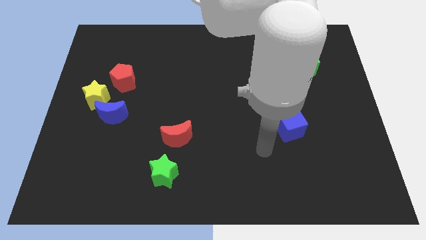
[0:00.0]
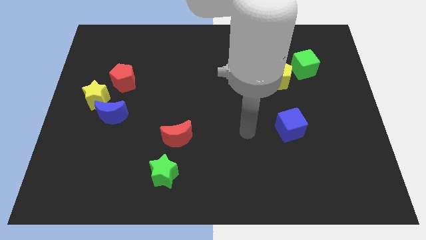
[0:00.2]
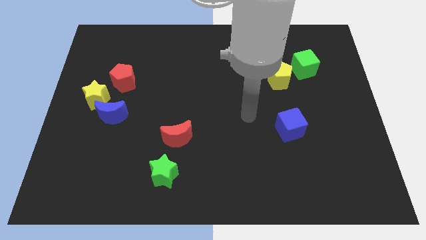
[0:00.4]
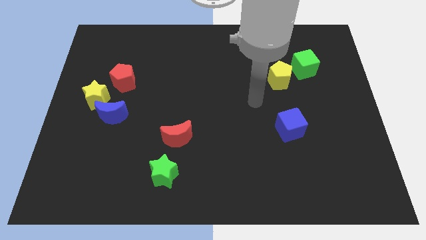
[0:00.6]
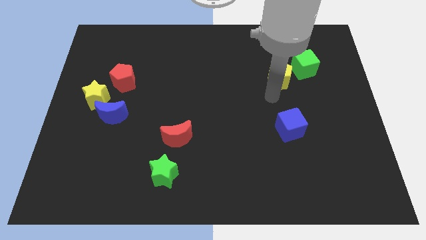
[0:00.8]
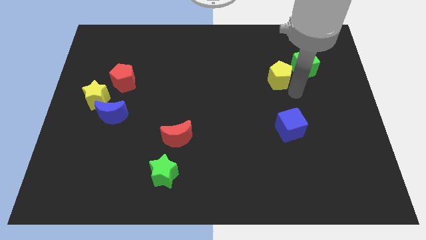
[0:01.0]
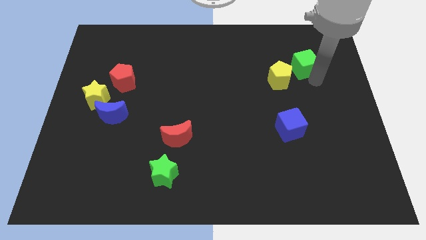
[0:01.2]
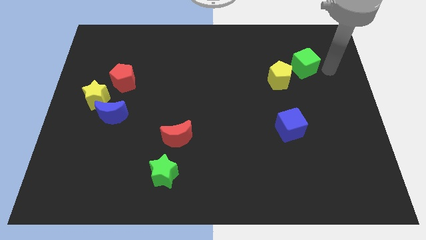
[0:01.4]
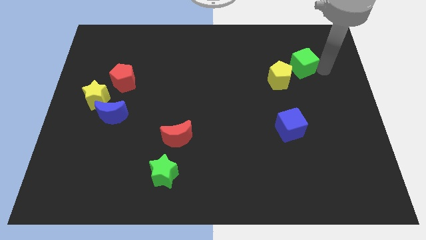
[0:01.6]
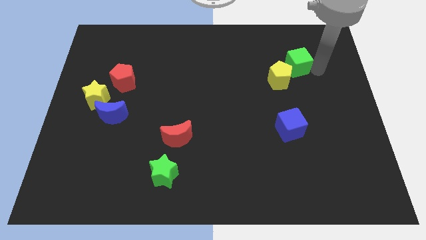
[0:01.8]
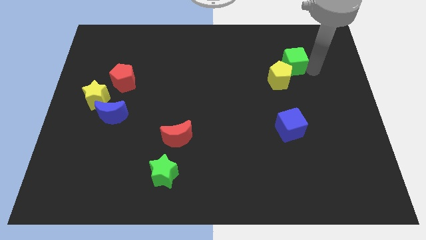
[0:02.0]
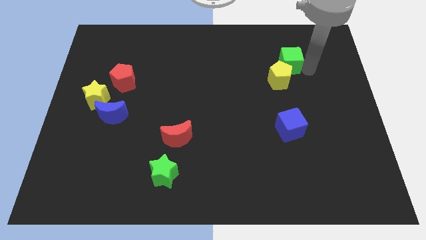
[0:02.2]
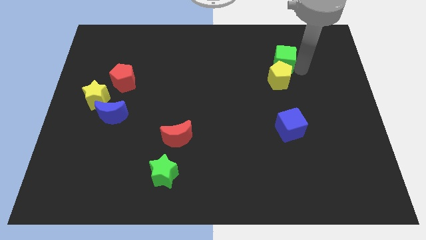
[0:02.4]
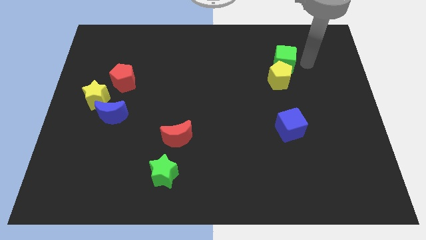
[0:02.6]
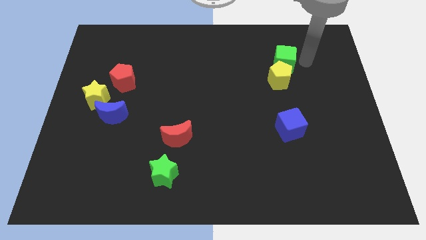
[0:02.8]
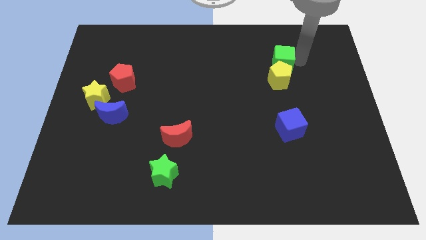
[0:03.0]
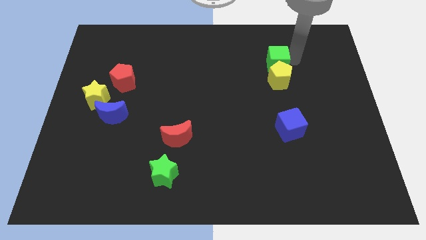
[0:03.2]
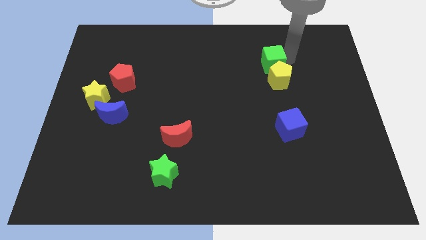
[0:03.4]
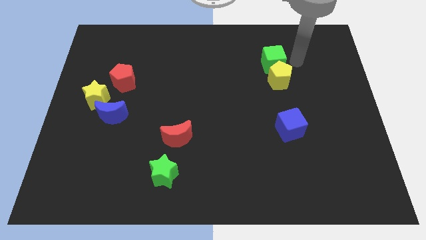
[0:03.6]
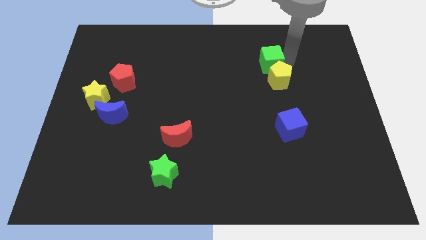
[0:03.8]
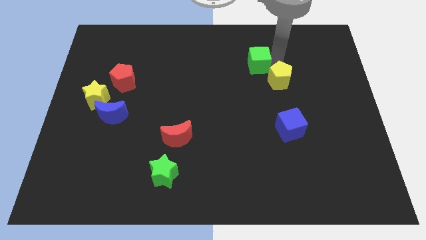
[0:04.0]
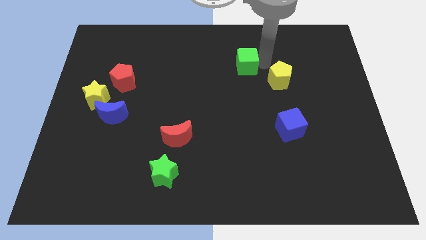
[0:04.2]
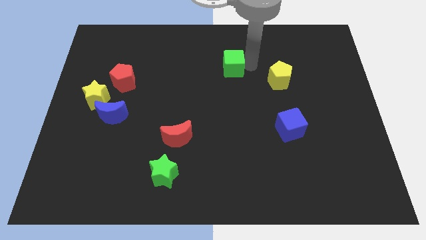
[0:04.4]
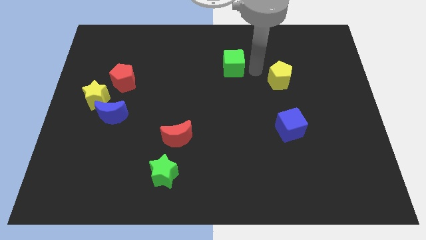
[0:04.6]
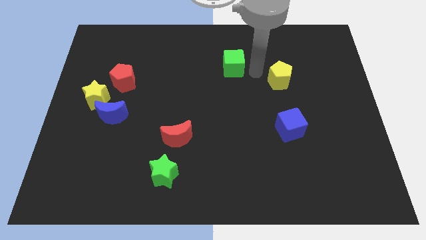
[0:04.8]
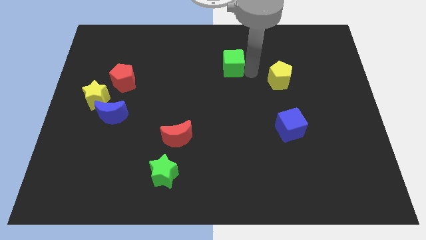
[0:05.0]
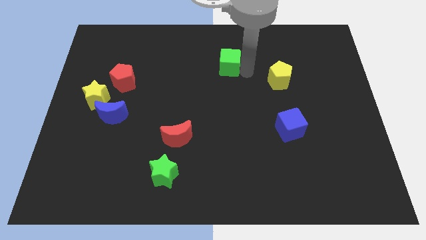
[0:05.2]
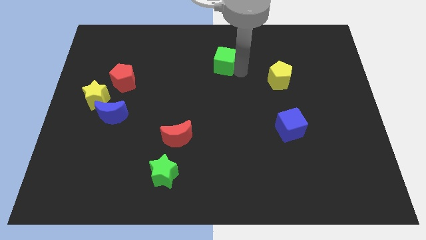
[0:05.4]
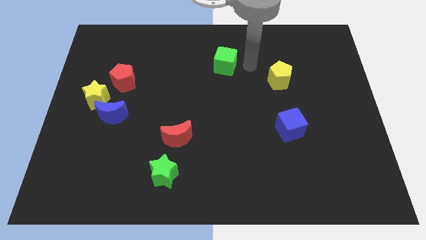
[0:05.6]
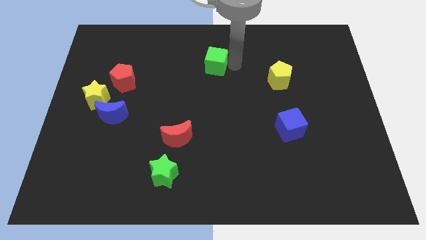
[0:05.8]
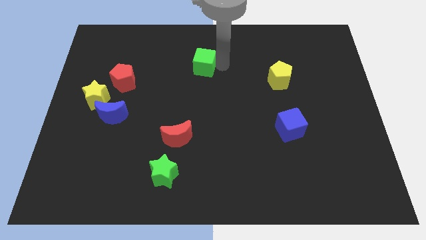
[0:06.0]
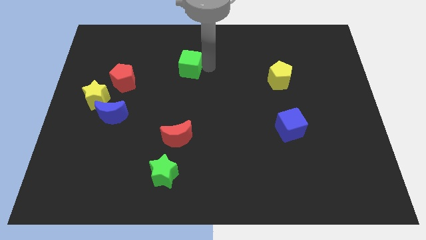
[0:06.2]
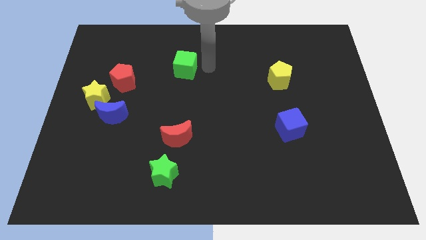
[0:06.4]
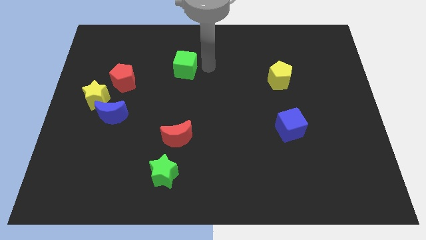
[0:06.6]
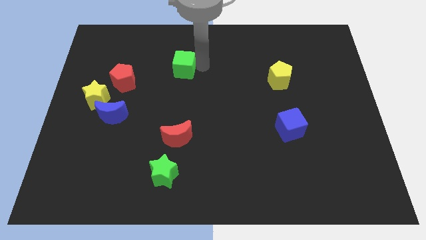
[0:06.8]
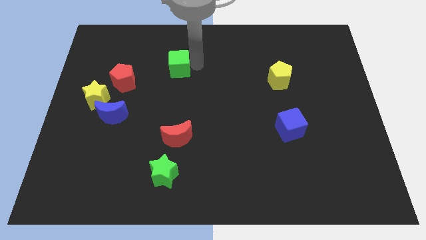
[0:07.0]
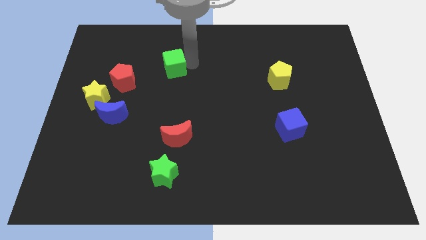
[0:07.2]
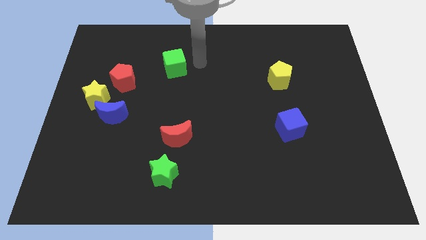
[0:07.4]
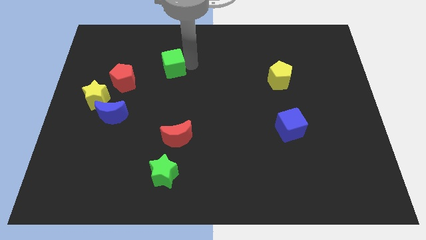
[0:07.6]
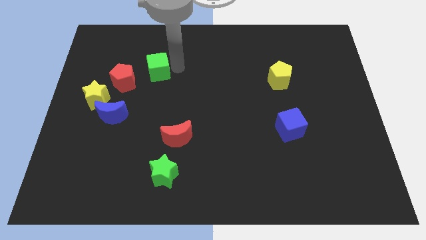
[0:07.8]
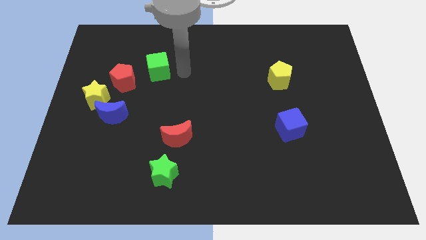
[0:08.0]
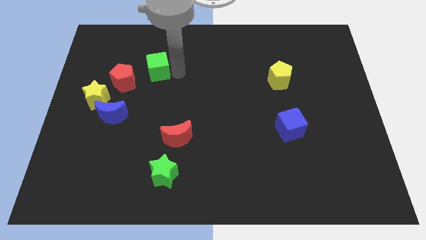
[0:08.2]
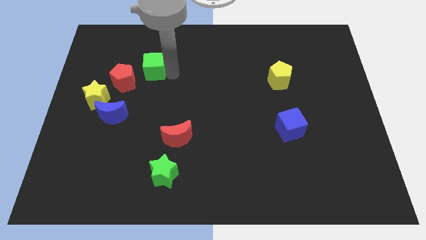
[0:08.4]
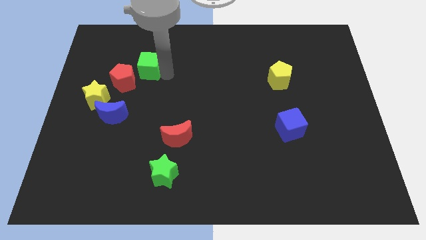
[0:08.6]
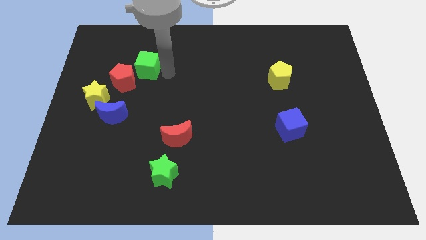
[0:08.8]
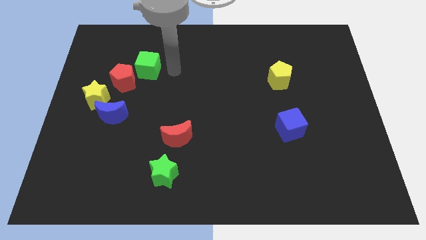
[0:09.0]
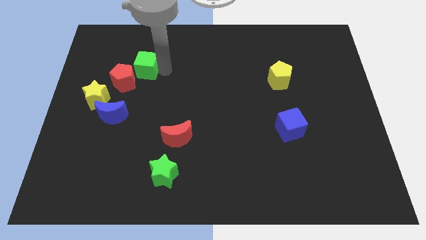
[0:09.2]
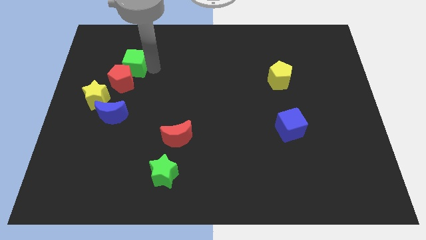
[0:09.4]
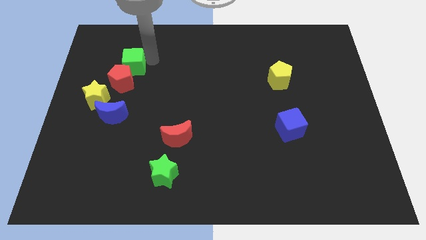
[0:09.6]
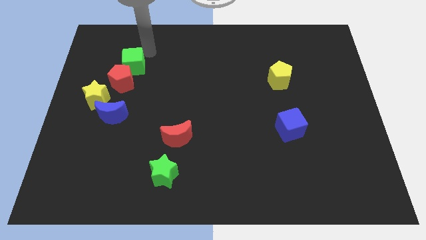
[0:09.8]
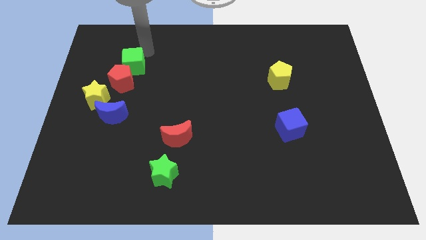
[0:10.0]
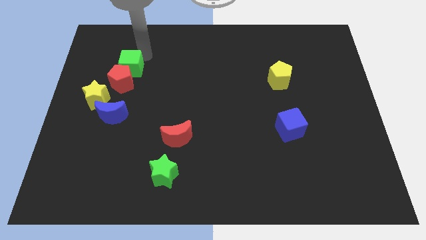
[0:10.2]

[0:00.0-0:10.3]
move the green cube above the blue moon

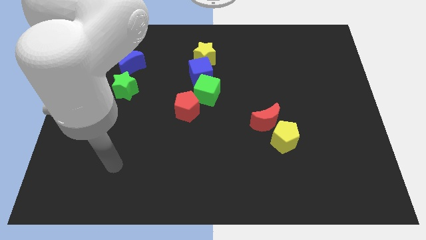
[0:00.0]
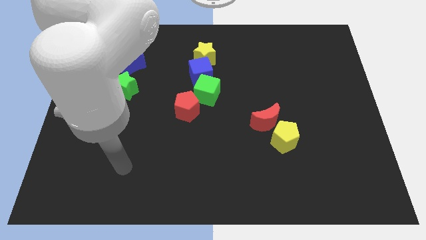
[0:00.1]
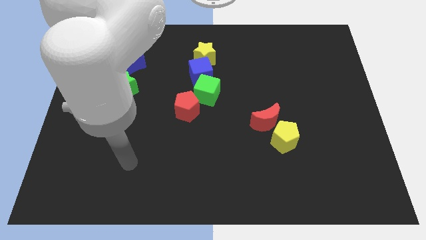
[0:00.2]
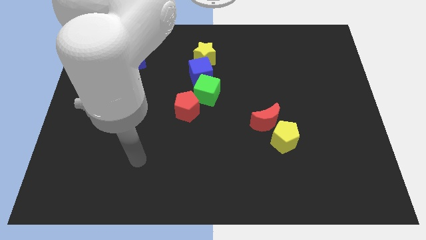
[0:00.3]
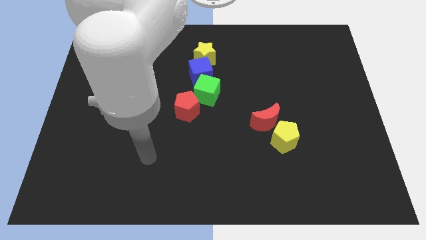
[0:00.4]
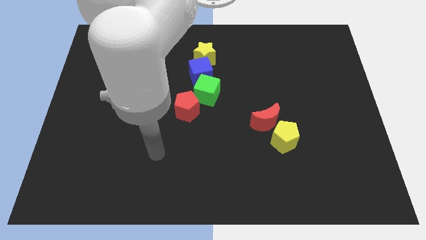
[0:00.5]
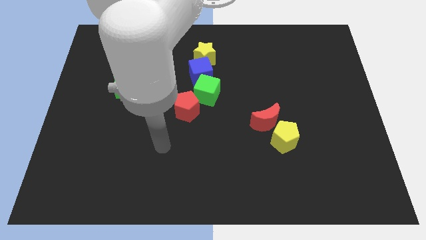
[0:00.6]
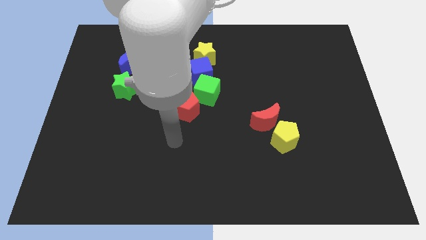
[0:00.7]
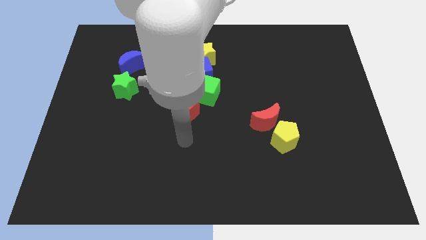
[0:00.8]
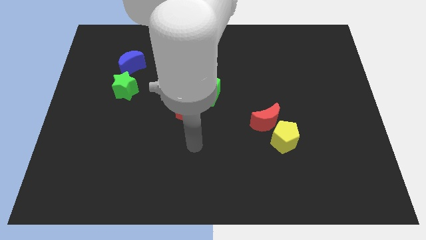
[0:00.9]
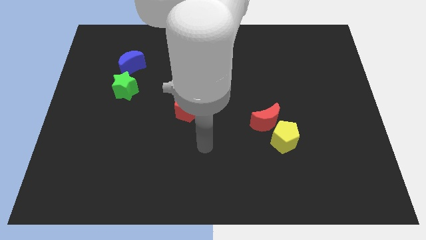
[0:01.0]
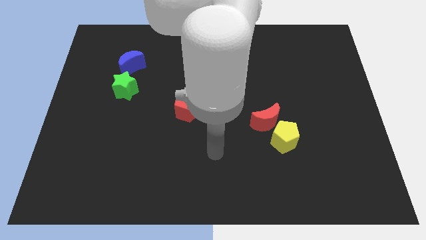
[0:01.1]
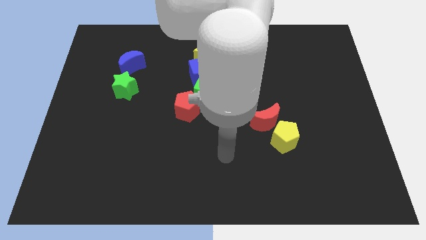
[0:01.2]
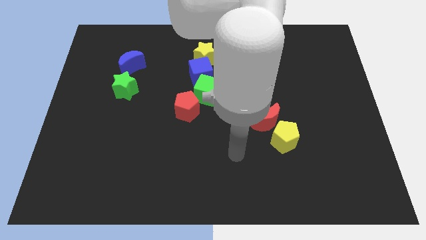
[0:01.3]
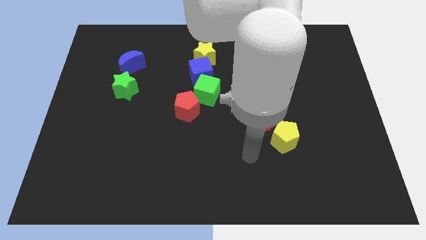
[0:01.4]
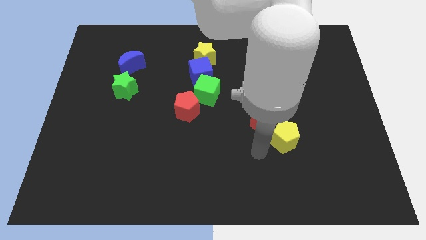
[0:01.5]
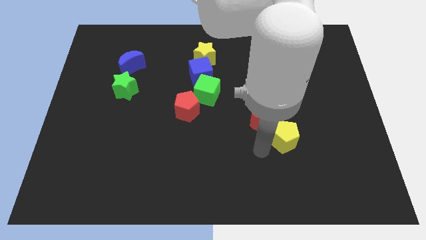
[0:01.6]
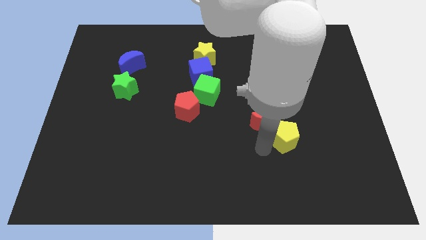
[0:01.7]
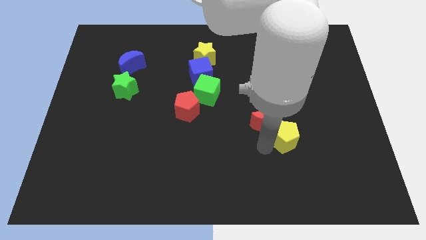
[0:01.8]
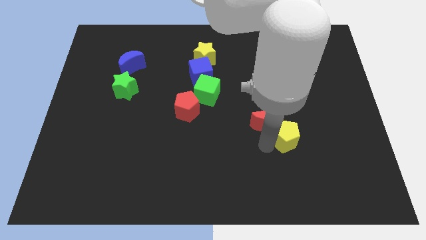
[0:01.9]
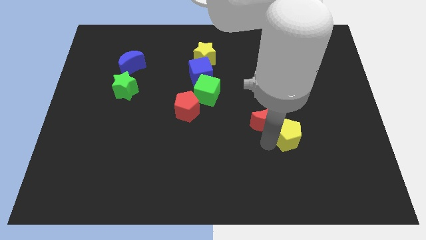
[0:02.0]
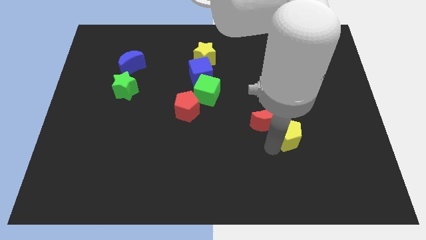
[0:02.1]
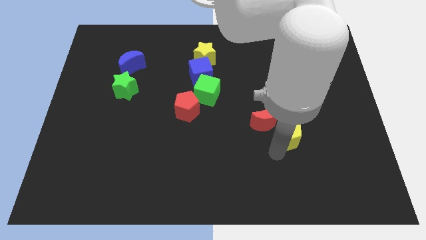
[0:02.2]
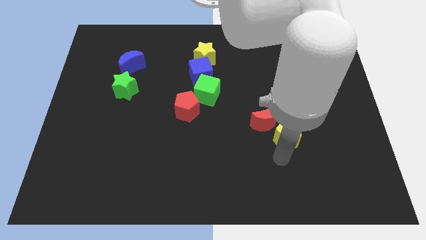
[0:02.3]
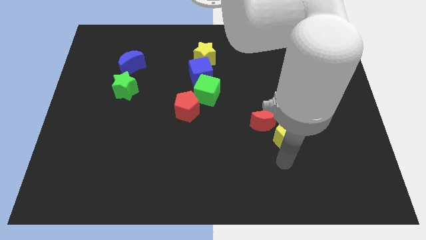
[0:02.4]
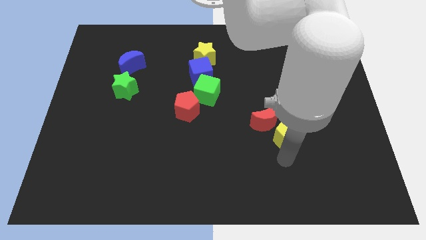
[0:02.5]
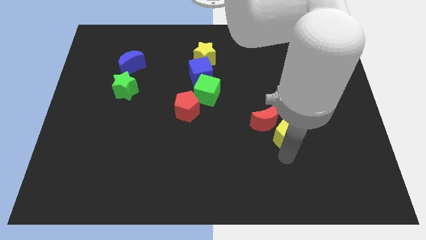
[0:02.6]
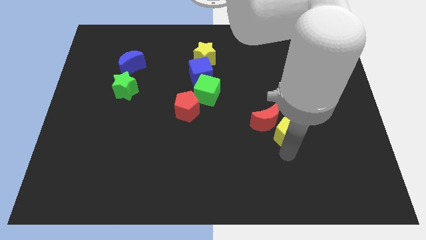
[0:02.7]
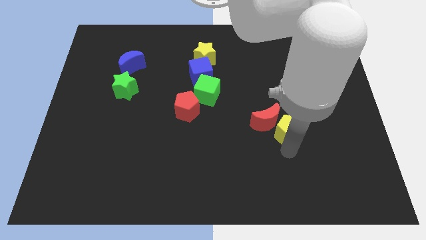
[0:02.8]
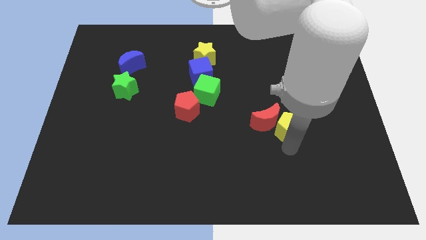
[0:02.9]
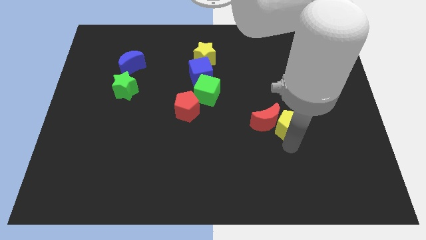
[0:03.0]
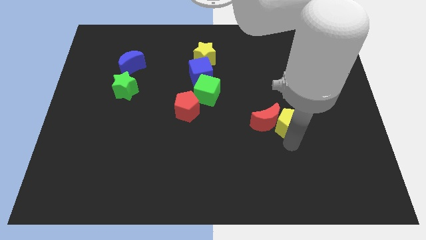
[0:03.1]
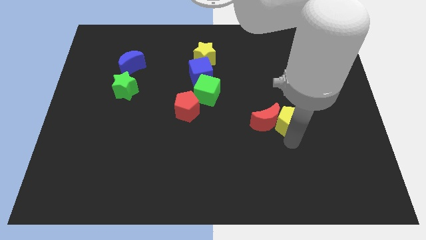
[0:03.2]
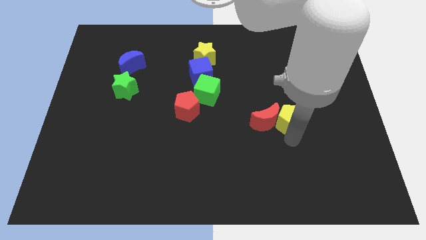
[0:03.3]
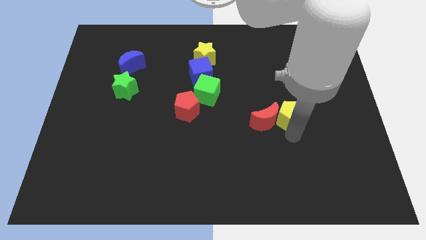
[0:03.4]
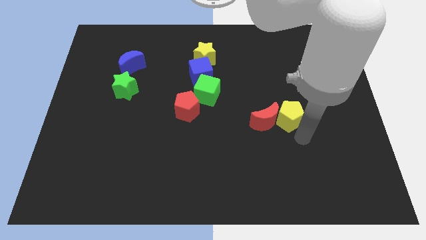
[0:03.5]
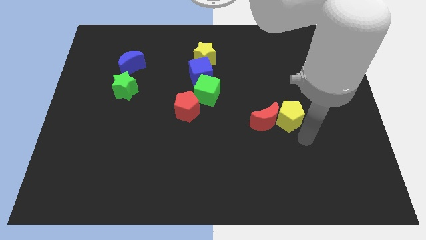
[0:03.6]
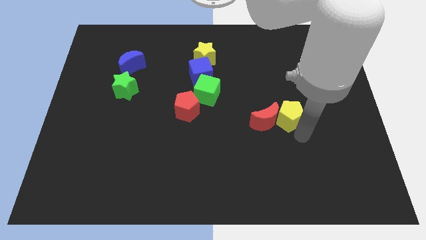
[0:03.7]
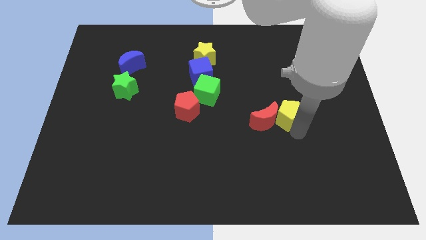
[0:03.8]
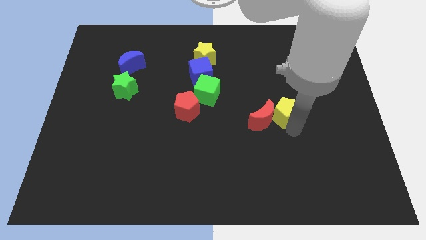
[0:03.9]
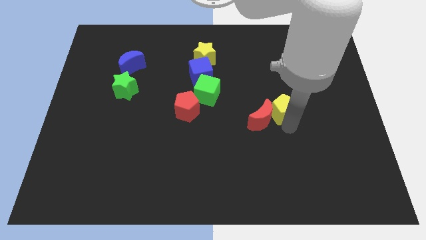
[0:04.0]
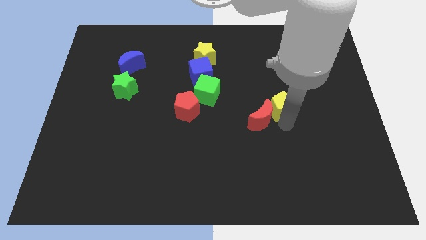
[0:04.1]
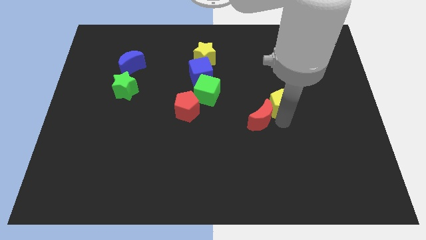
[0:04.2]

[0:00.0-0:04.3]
put the yellow pentagon above the red moon
